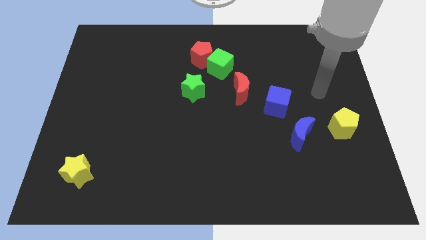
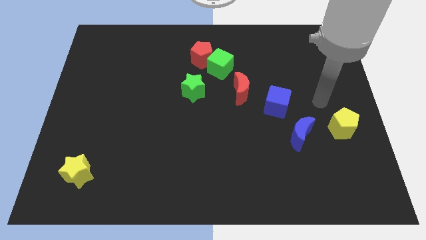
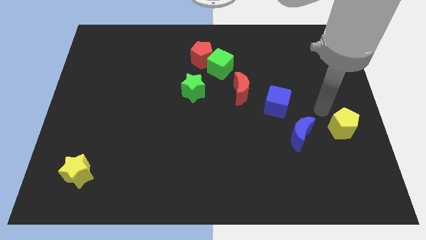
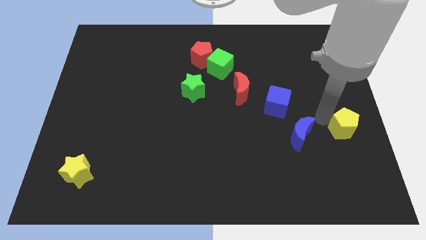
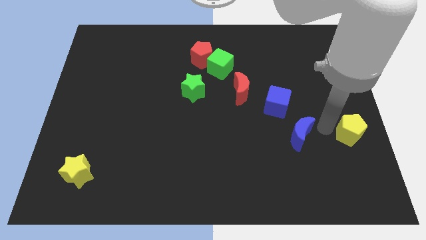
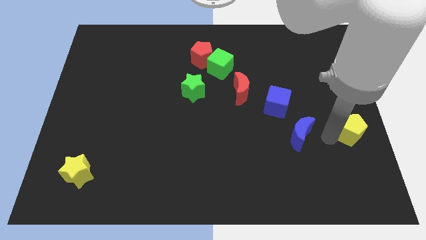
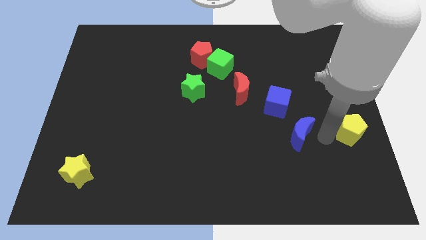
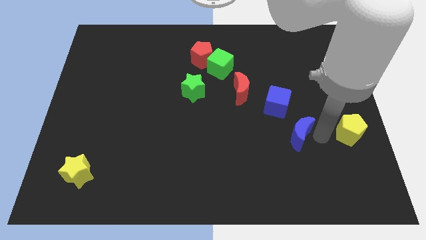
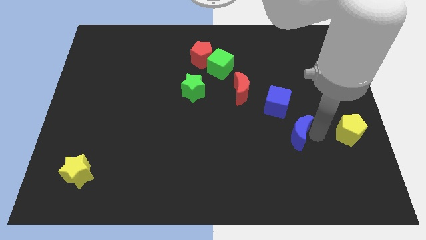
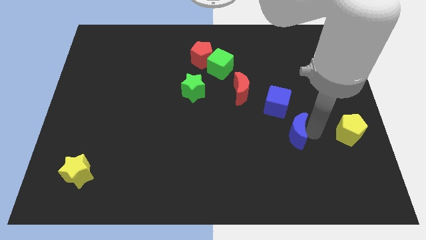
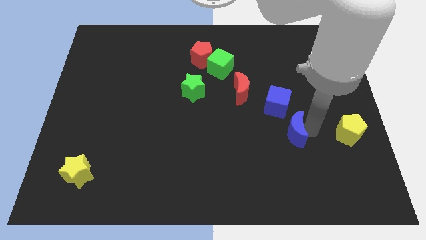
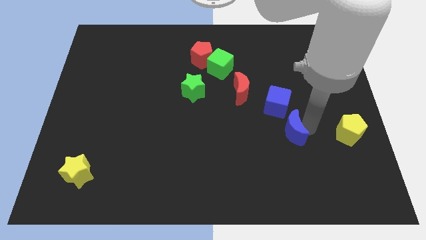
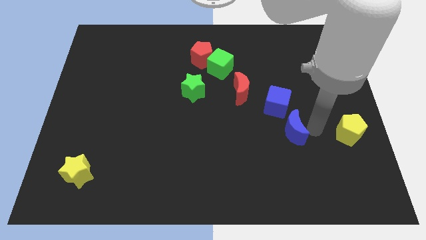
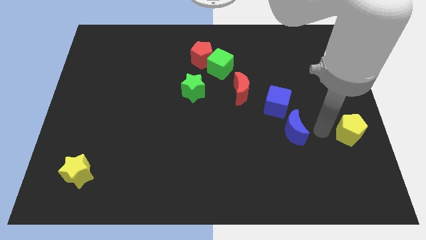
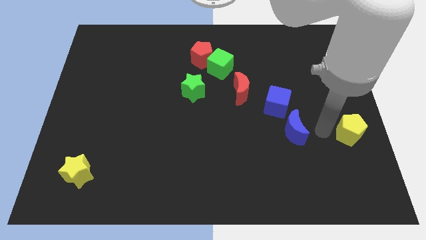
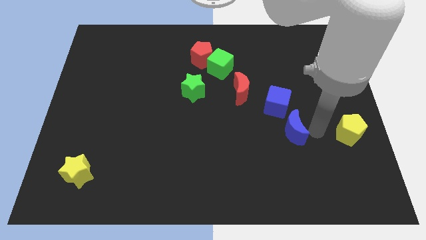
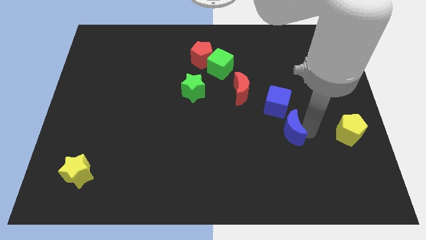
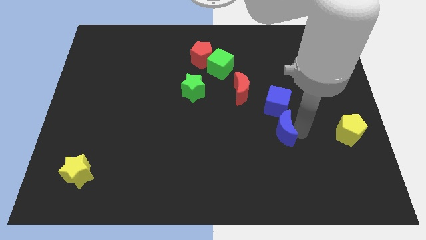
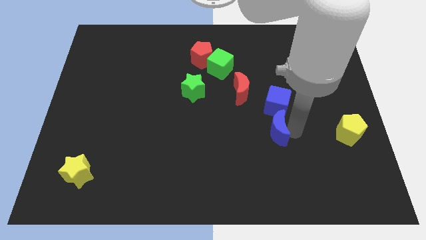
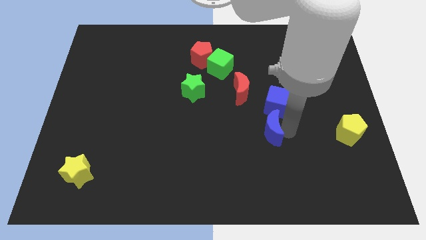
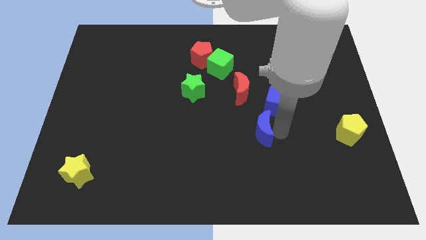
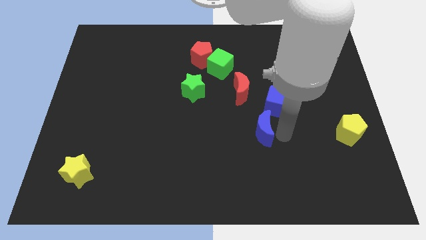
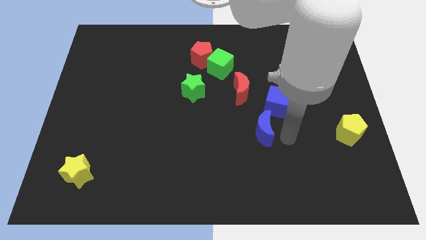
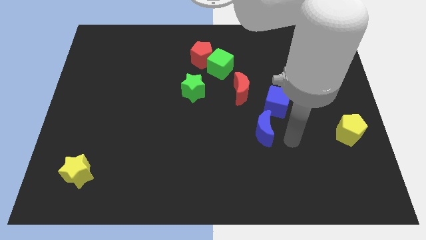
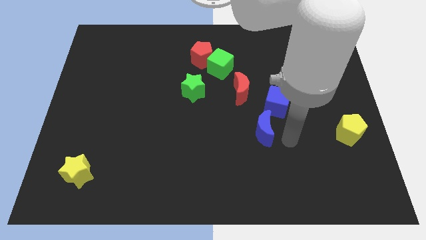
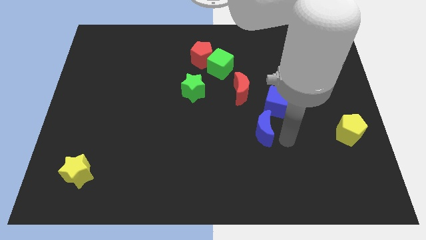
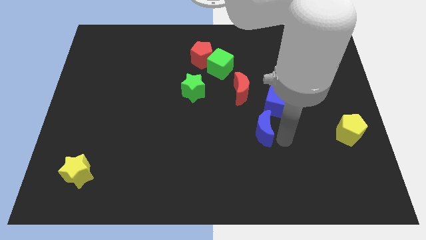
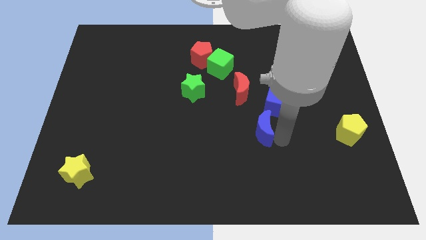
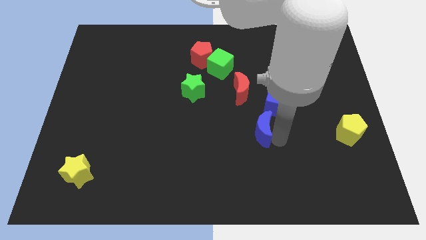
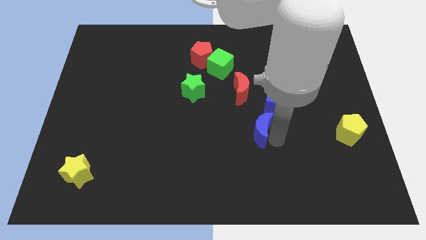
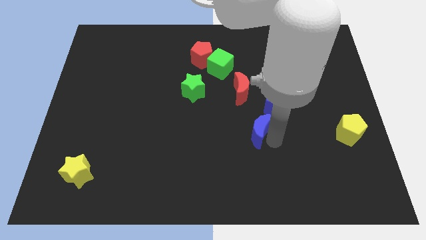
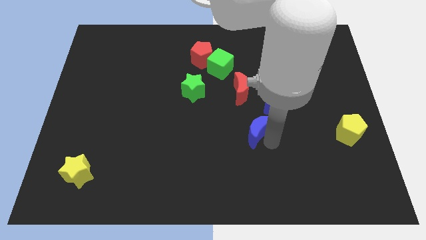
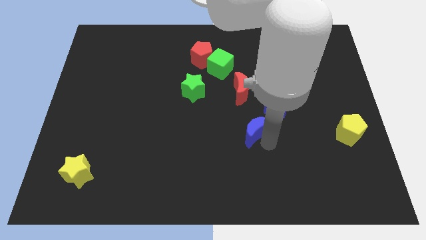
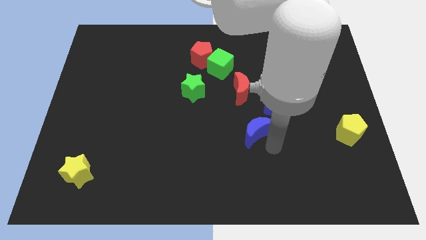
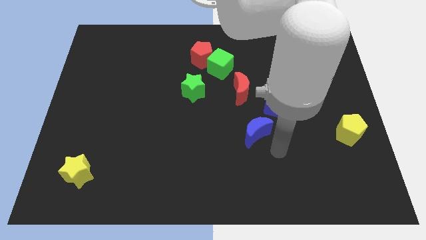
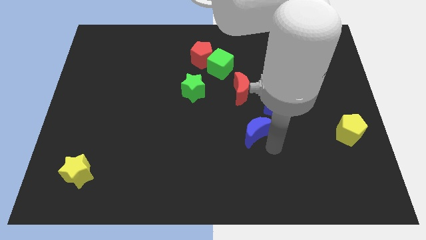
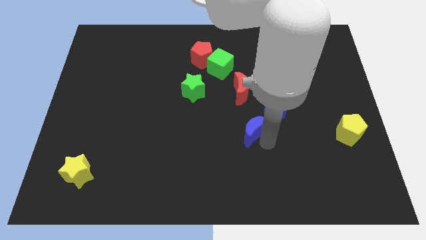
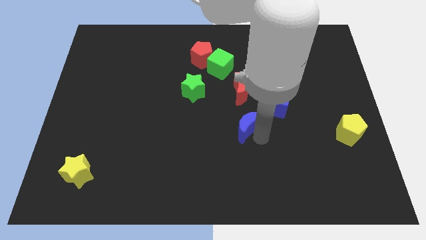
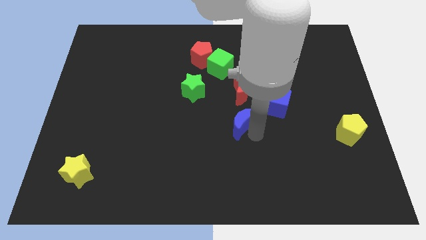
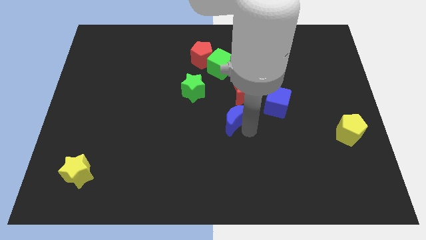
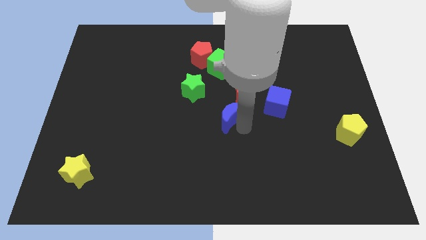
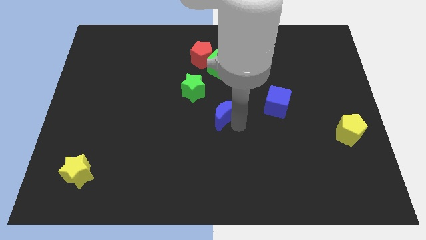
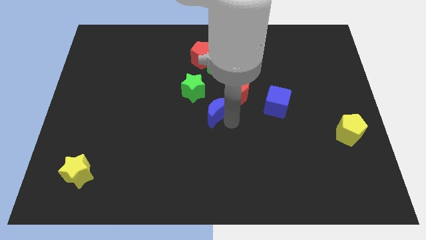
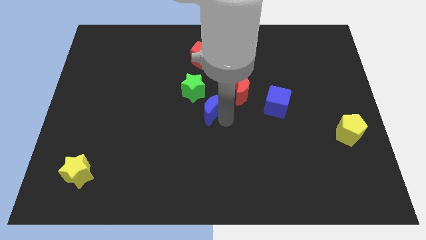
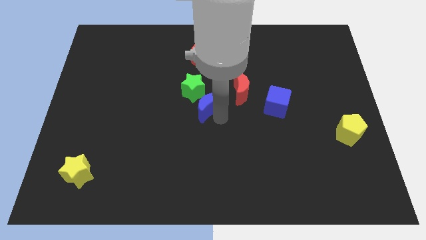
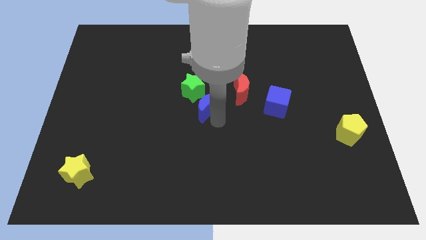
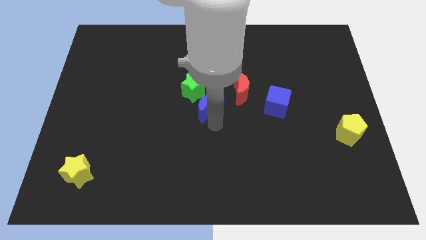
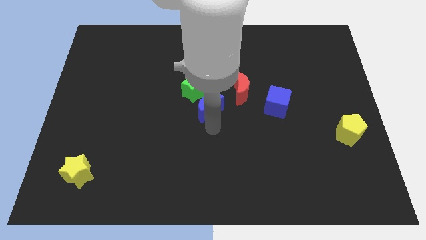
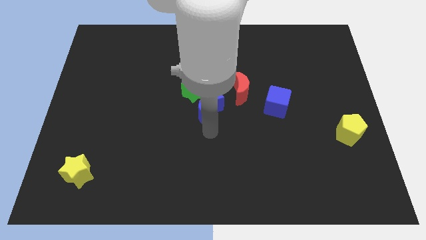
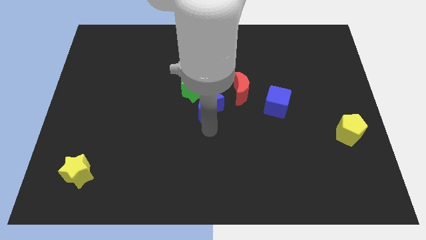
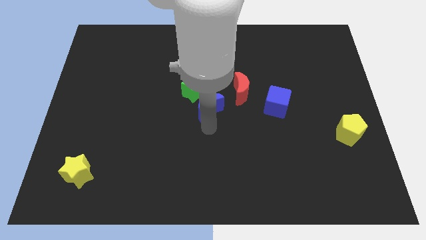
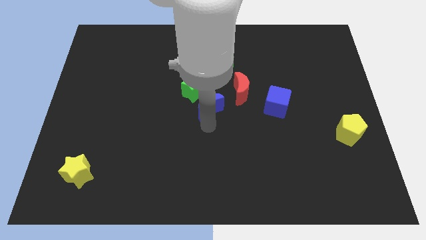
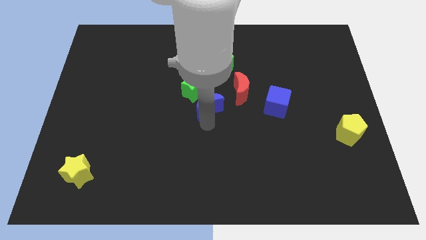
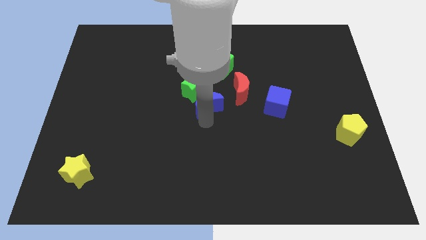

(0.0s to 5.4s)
move the blue moon to the green star
